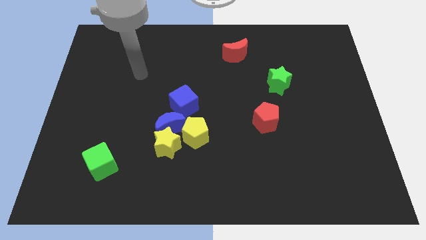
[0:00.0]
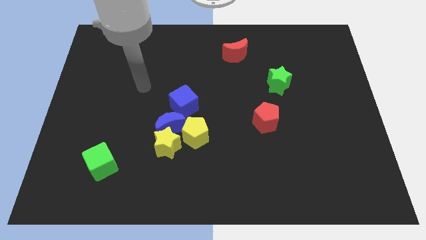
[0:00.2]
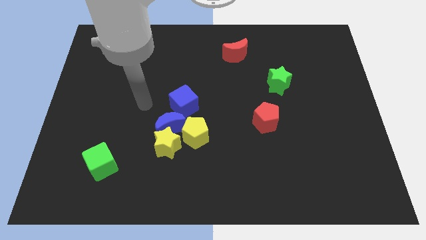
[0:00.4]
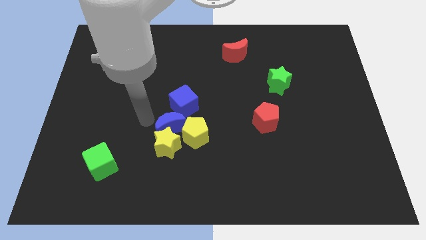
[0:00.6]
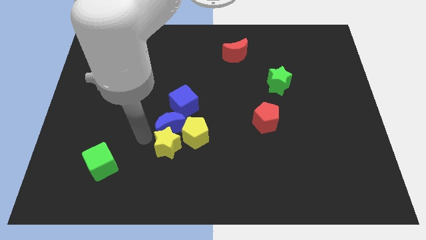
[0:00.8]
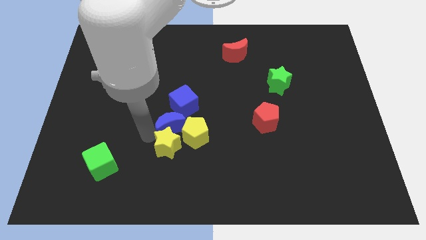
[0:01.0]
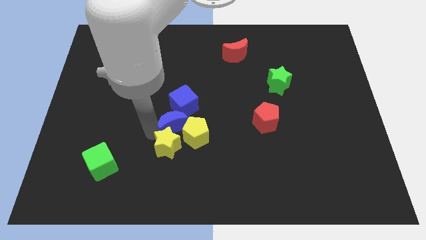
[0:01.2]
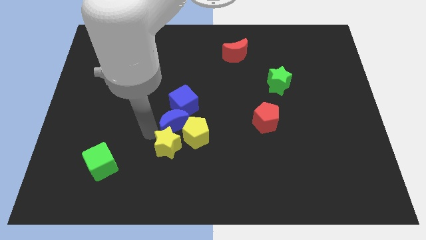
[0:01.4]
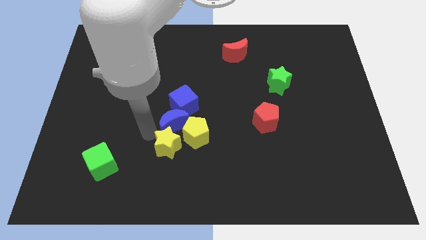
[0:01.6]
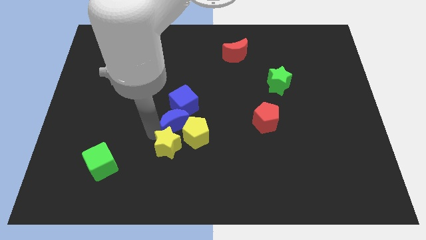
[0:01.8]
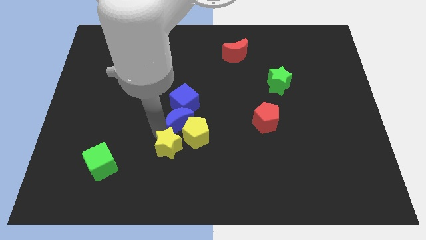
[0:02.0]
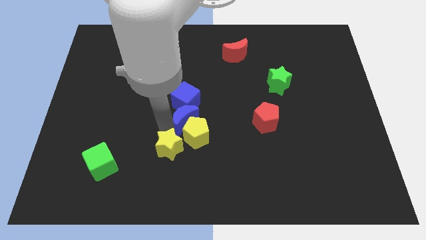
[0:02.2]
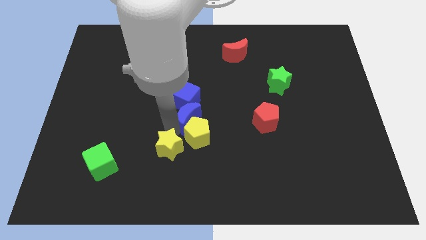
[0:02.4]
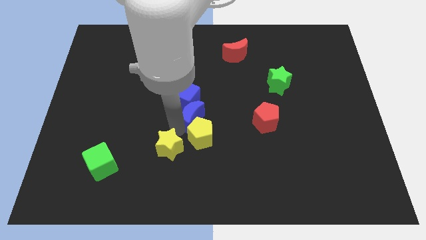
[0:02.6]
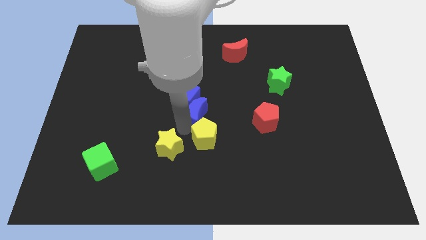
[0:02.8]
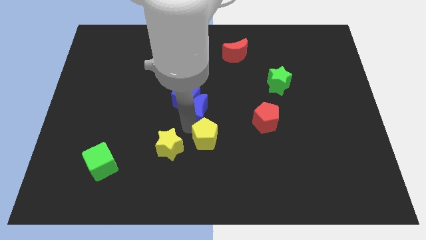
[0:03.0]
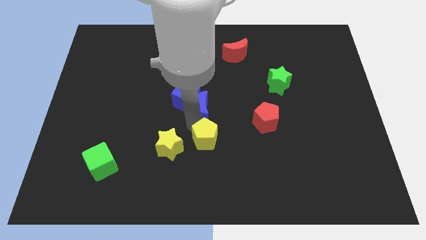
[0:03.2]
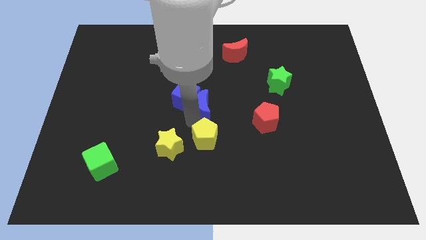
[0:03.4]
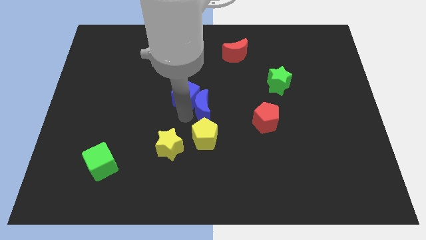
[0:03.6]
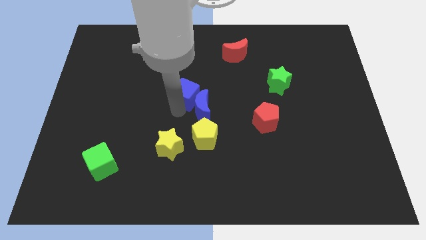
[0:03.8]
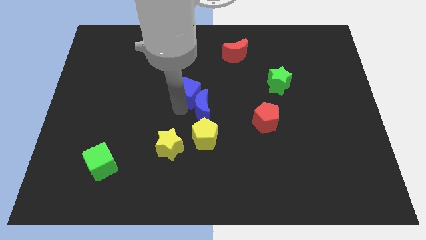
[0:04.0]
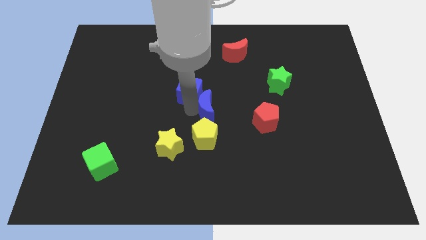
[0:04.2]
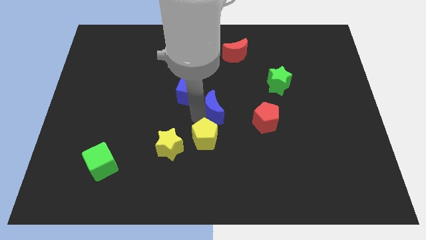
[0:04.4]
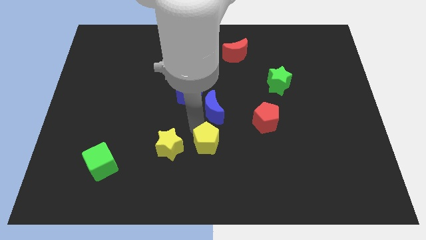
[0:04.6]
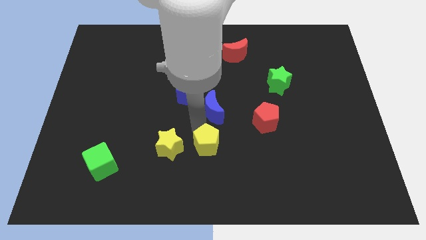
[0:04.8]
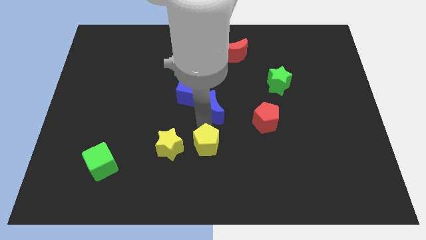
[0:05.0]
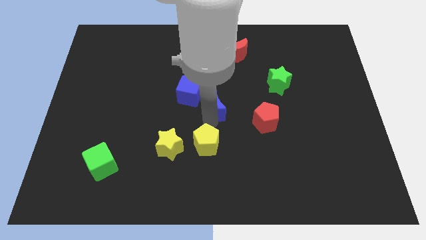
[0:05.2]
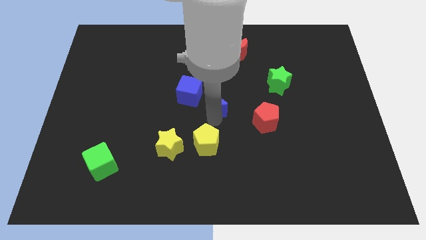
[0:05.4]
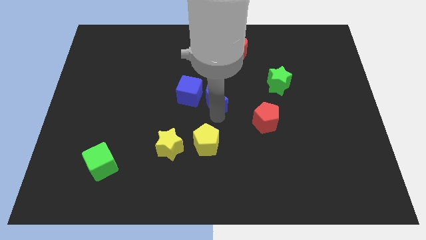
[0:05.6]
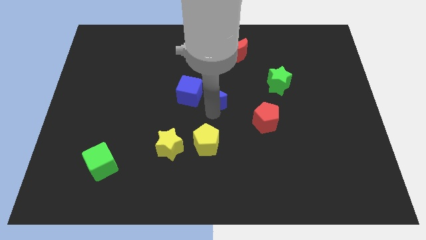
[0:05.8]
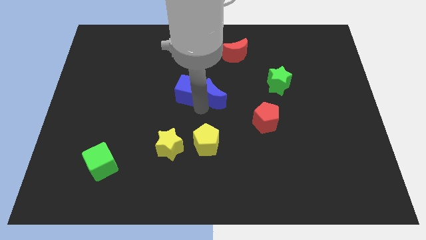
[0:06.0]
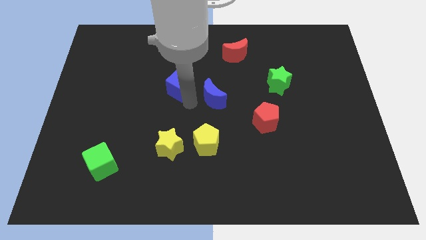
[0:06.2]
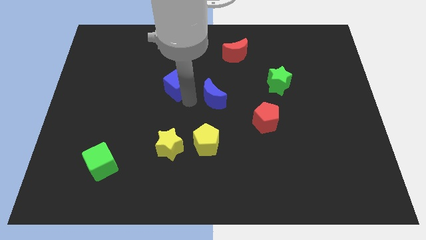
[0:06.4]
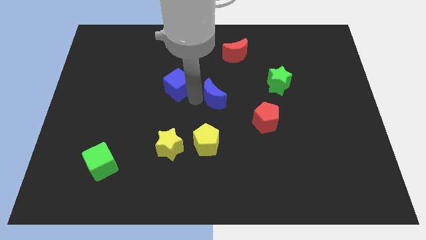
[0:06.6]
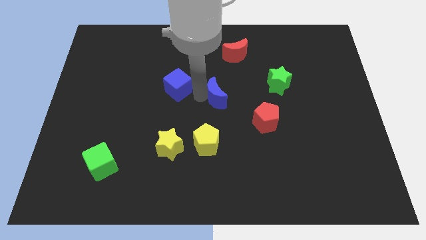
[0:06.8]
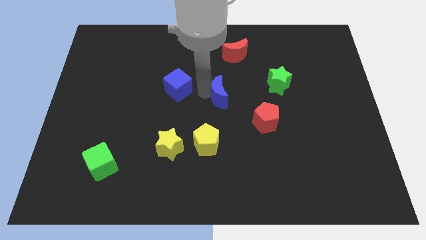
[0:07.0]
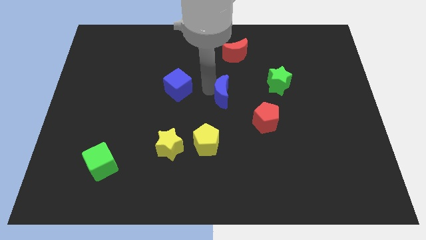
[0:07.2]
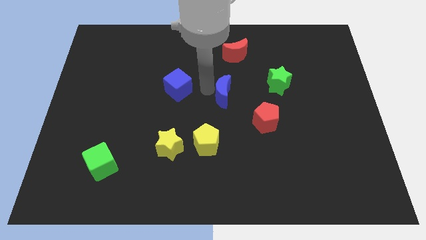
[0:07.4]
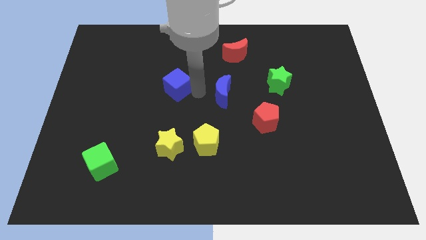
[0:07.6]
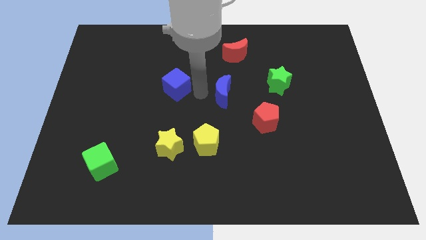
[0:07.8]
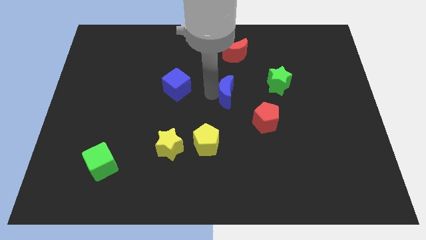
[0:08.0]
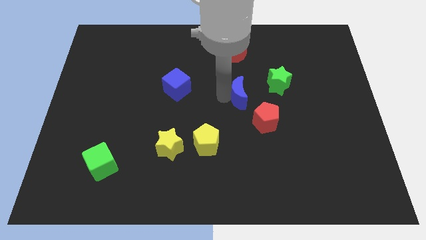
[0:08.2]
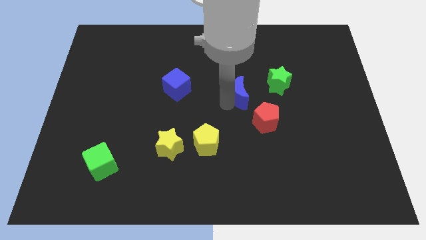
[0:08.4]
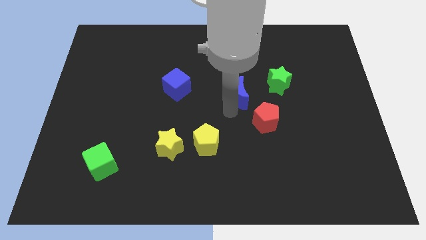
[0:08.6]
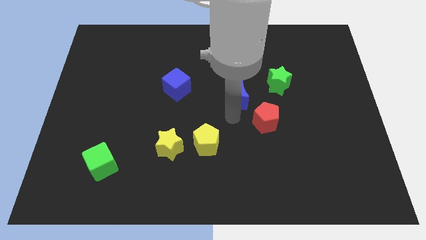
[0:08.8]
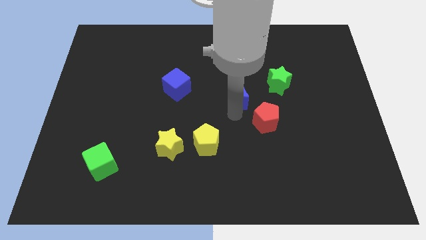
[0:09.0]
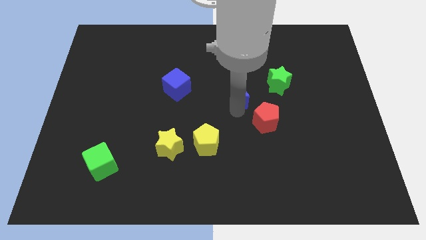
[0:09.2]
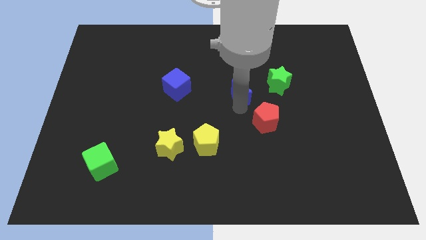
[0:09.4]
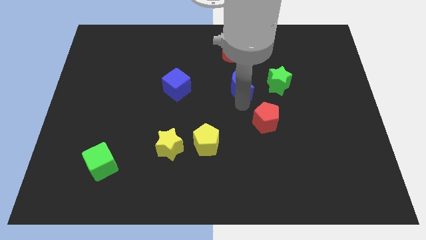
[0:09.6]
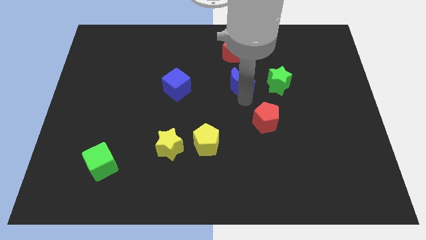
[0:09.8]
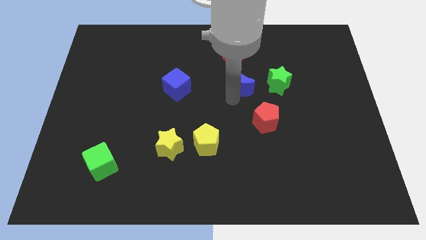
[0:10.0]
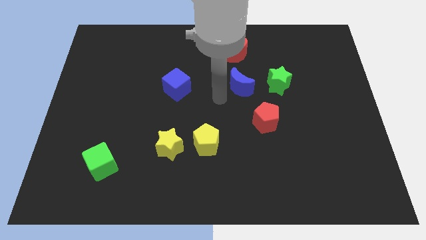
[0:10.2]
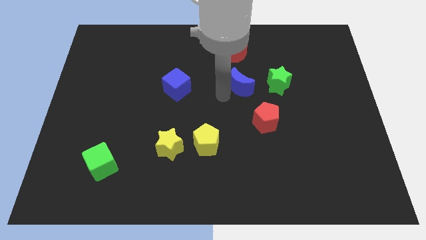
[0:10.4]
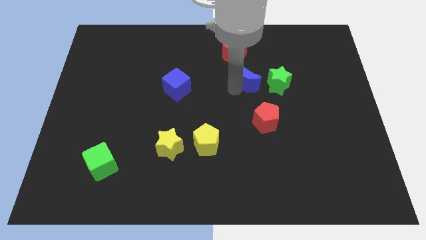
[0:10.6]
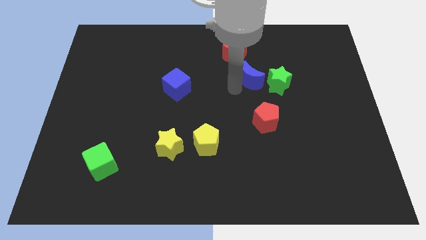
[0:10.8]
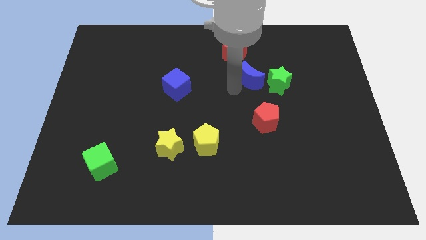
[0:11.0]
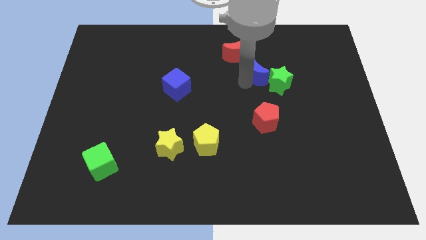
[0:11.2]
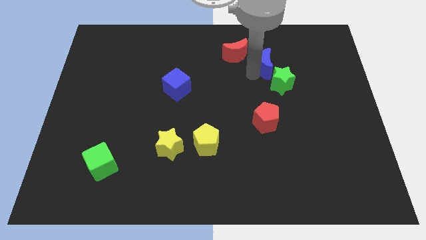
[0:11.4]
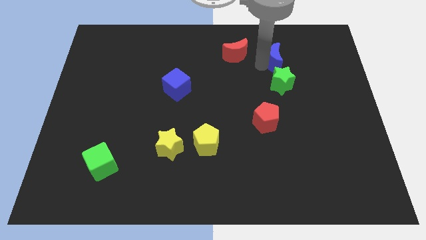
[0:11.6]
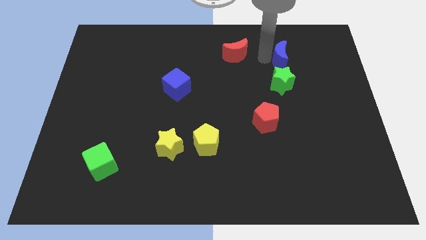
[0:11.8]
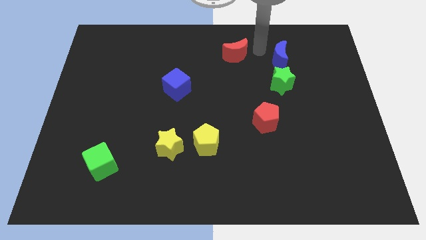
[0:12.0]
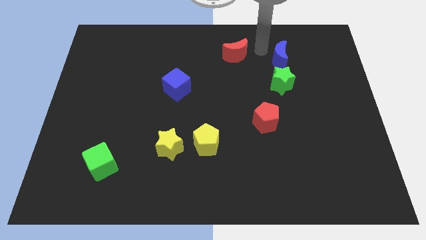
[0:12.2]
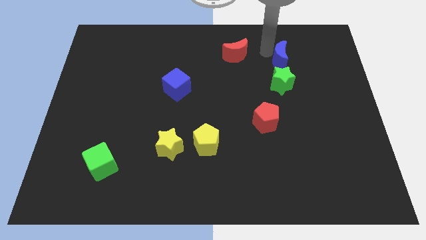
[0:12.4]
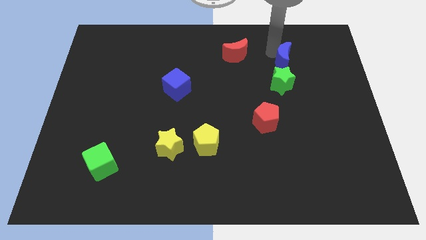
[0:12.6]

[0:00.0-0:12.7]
move the blue moon to the top right side of the green star

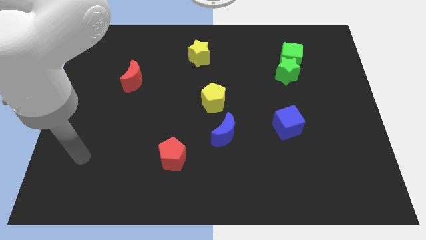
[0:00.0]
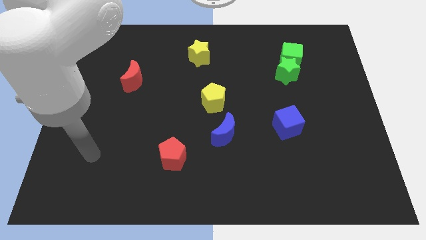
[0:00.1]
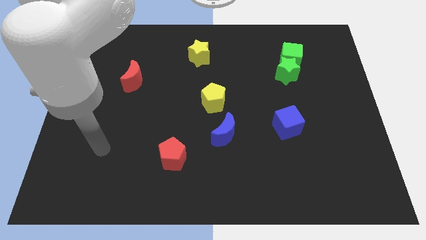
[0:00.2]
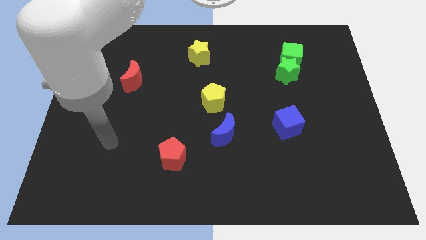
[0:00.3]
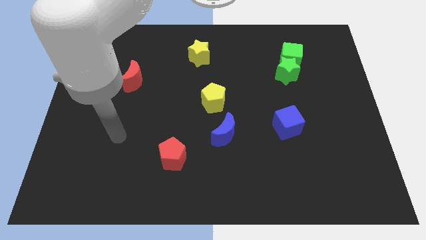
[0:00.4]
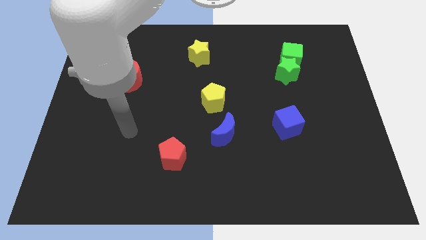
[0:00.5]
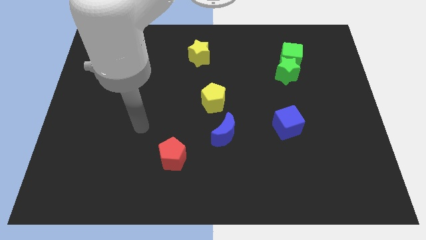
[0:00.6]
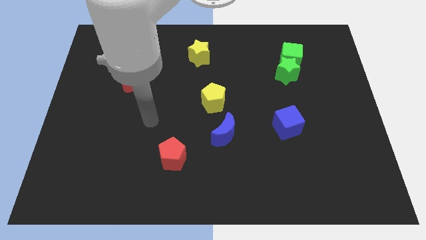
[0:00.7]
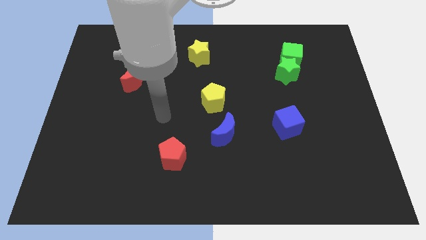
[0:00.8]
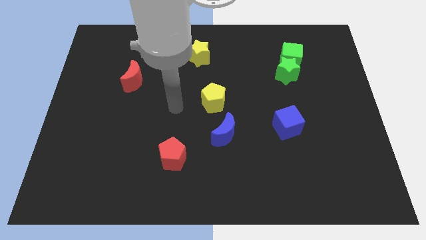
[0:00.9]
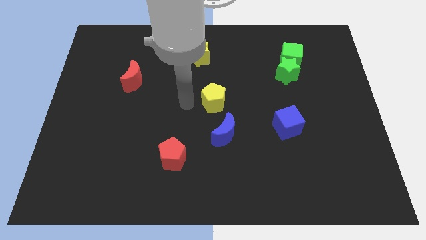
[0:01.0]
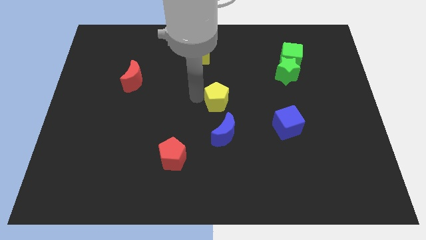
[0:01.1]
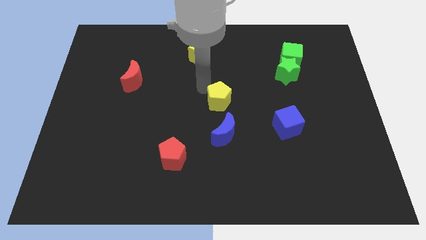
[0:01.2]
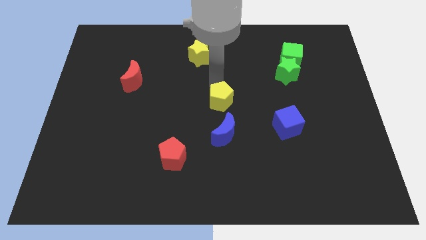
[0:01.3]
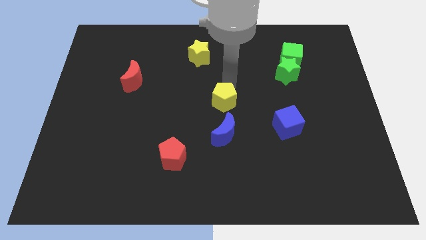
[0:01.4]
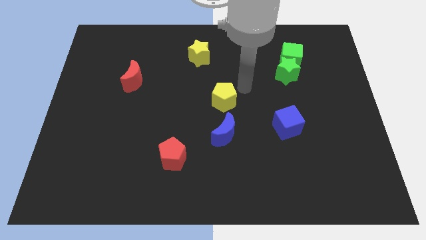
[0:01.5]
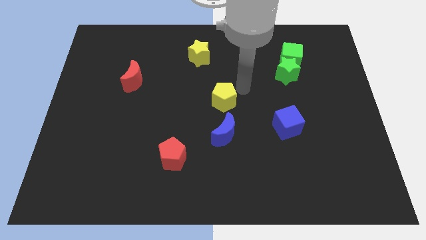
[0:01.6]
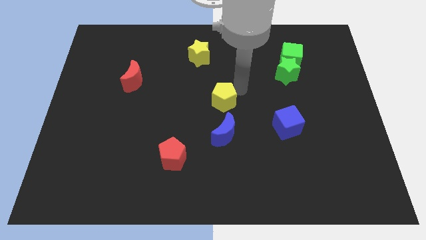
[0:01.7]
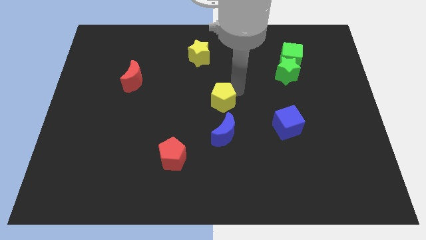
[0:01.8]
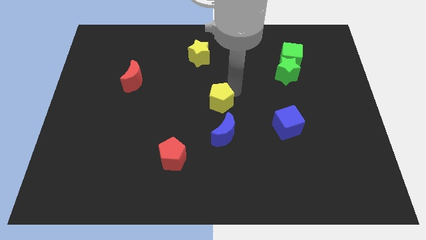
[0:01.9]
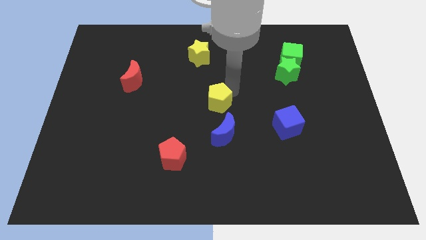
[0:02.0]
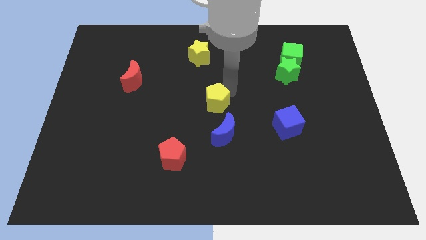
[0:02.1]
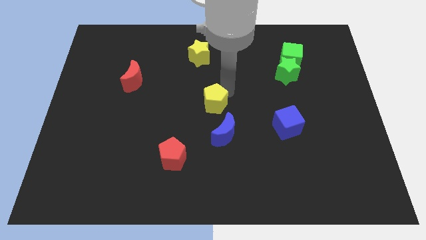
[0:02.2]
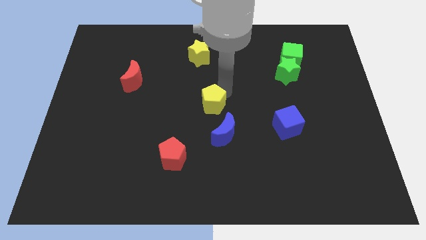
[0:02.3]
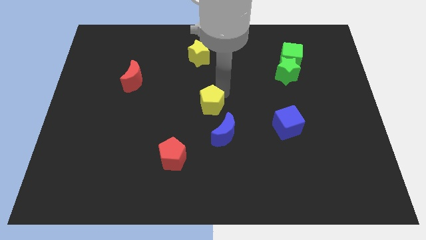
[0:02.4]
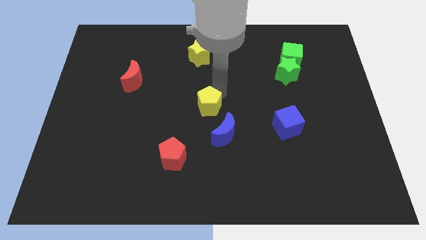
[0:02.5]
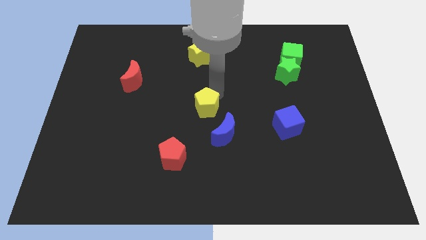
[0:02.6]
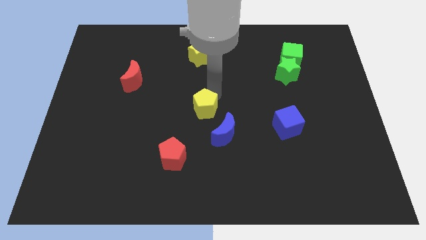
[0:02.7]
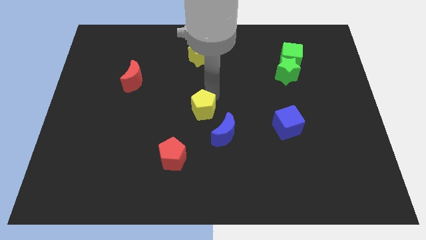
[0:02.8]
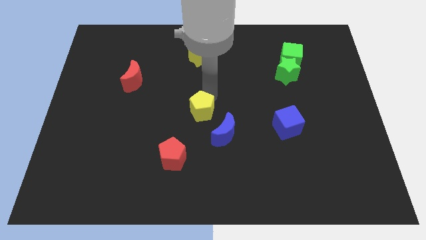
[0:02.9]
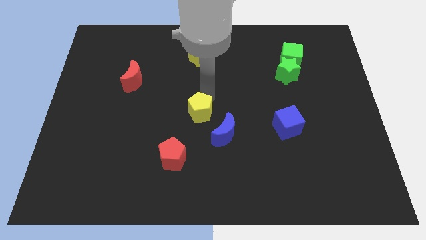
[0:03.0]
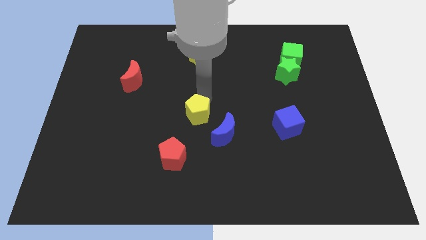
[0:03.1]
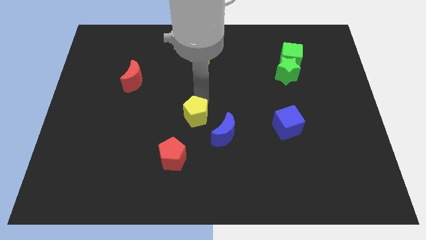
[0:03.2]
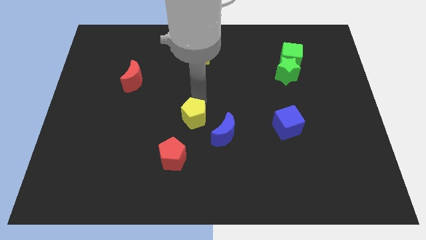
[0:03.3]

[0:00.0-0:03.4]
put the yellow pentagon to the left of the blue moon
